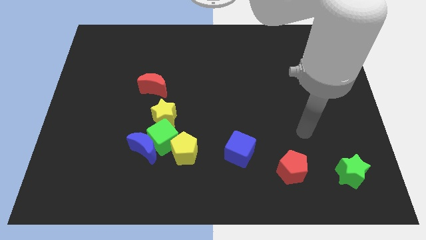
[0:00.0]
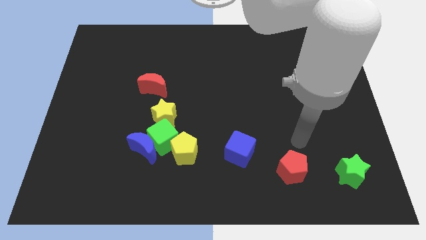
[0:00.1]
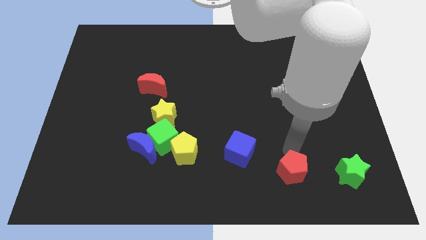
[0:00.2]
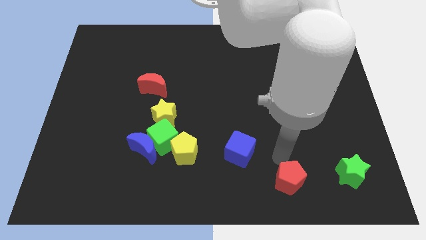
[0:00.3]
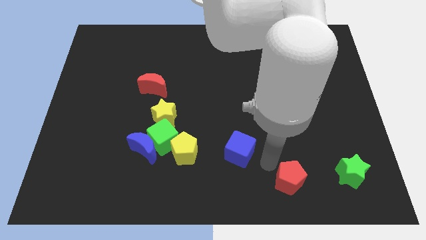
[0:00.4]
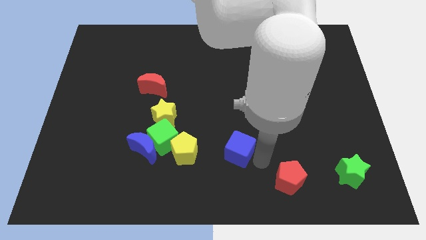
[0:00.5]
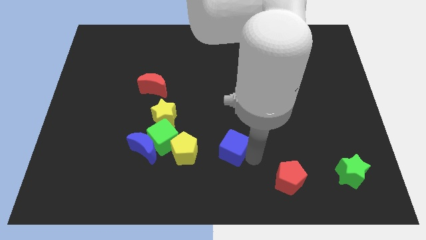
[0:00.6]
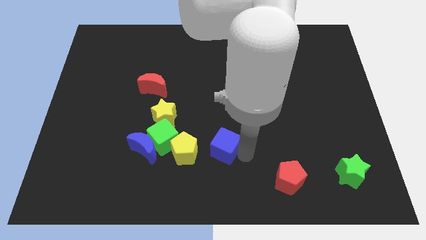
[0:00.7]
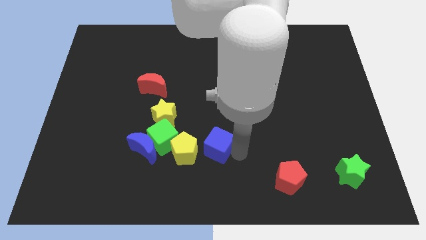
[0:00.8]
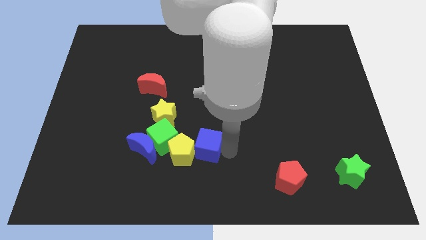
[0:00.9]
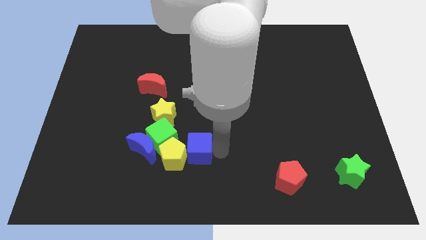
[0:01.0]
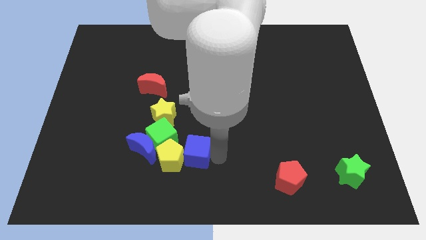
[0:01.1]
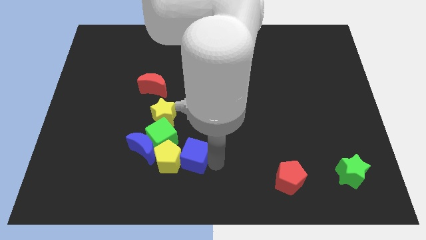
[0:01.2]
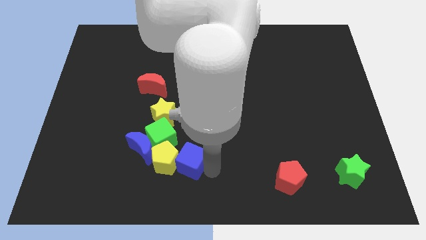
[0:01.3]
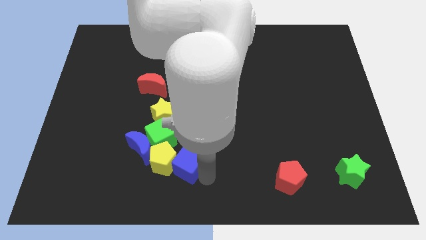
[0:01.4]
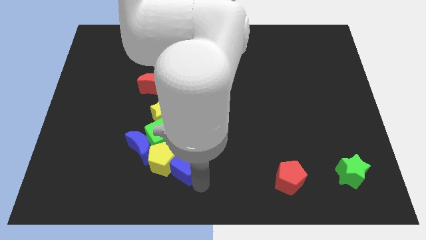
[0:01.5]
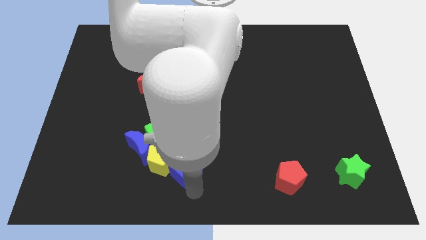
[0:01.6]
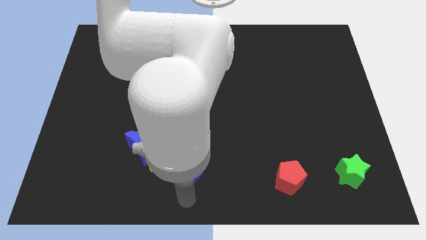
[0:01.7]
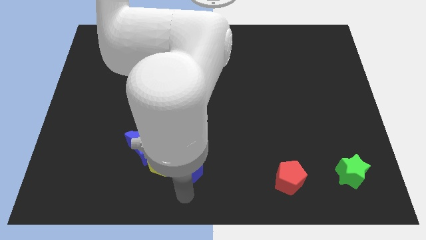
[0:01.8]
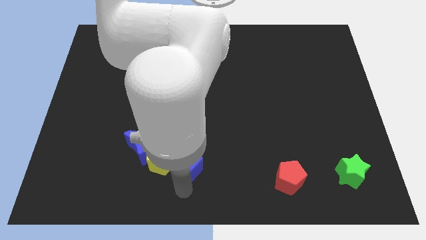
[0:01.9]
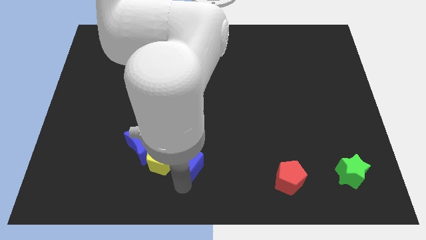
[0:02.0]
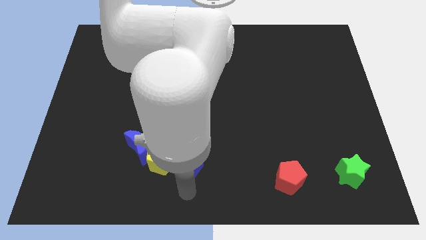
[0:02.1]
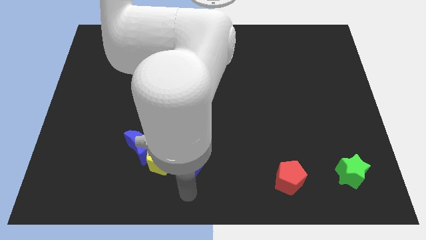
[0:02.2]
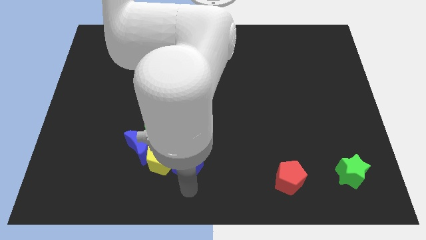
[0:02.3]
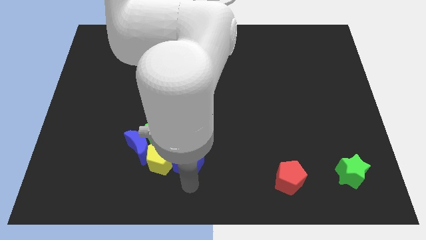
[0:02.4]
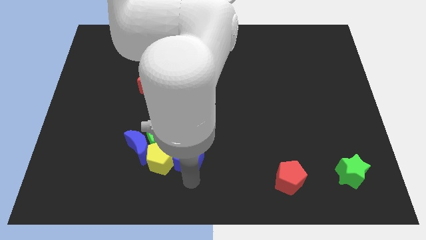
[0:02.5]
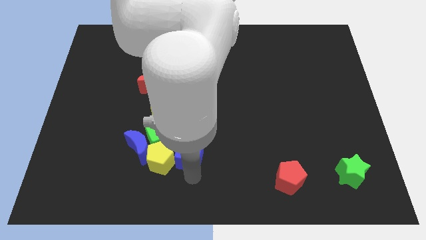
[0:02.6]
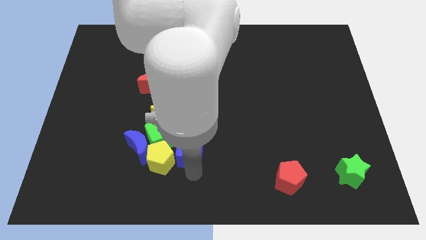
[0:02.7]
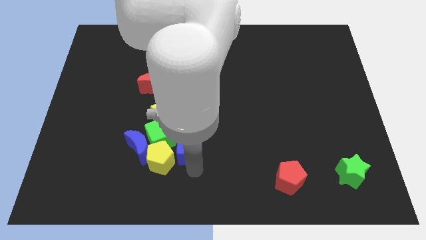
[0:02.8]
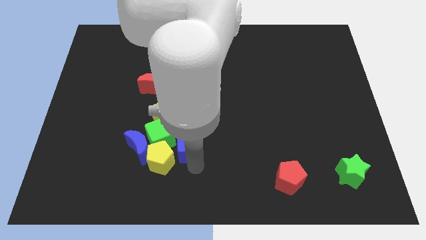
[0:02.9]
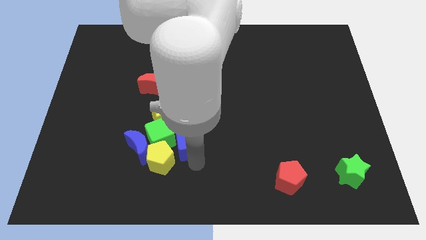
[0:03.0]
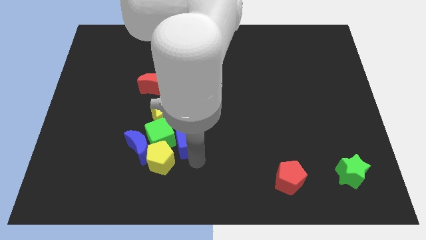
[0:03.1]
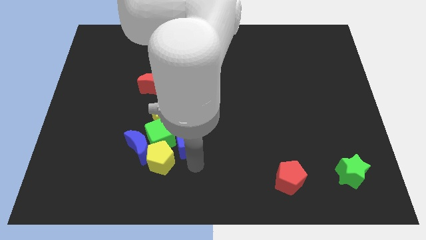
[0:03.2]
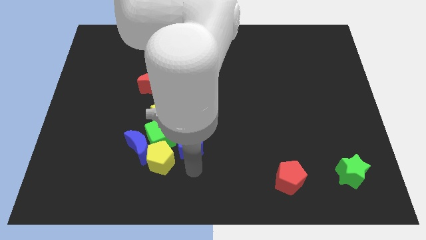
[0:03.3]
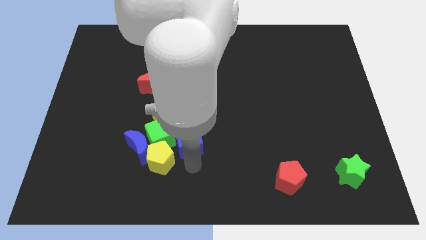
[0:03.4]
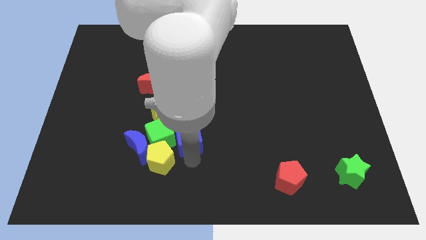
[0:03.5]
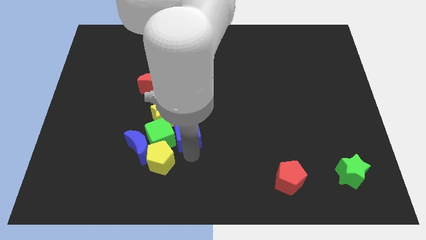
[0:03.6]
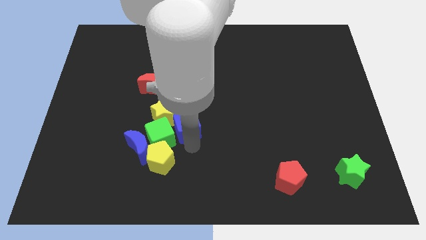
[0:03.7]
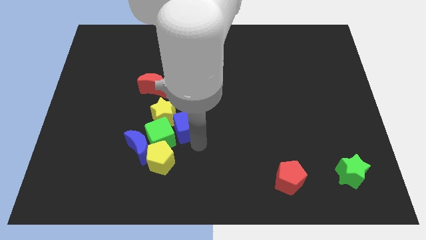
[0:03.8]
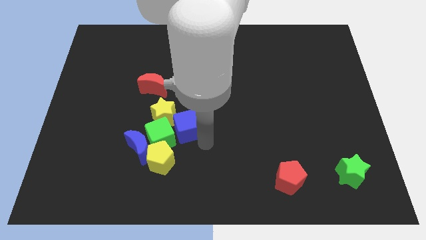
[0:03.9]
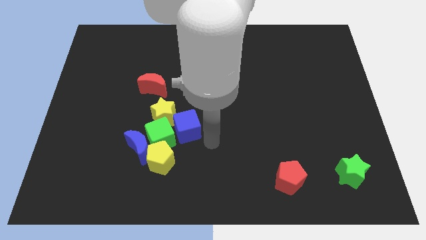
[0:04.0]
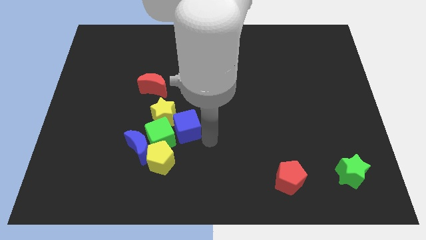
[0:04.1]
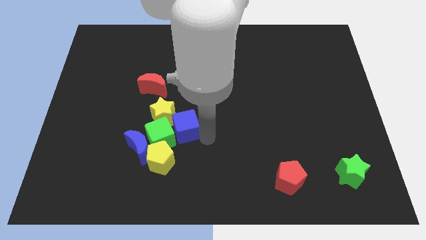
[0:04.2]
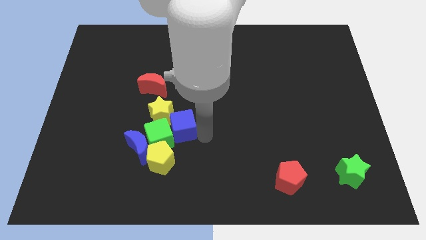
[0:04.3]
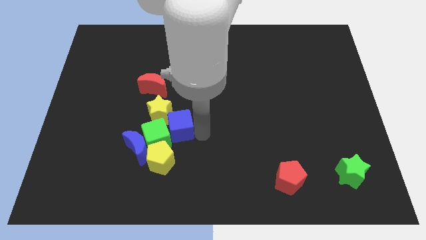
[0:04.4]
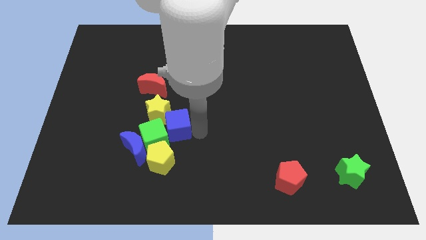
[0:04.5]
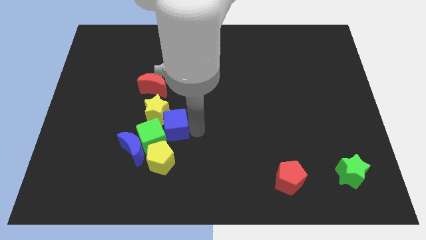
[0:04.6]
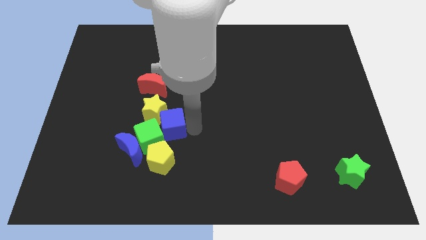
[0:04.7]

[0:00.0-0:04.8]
move the blue cube next to the yellow star

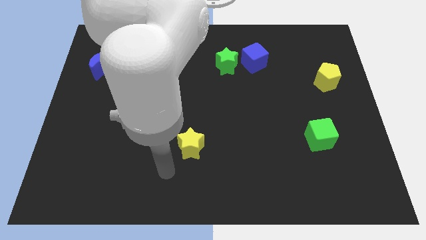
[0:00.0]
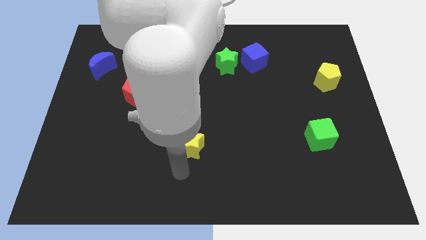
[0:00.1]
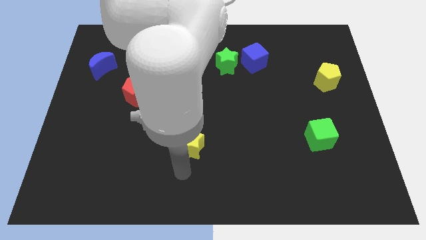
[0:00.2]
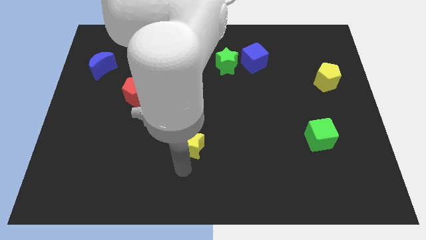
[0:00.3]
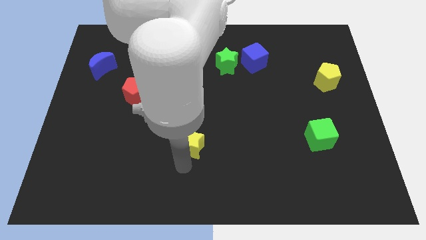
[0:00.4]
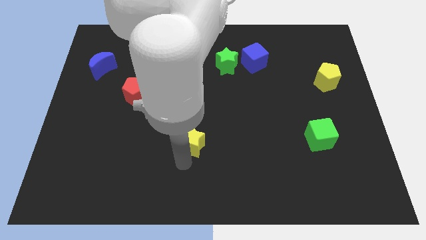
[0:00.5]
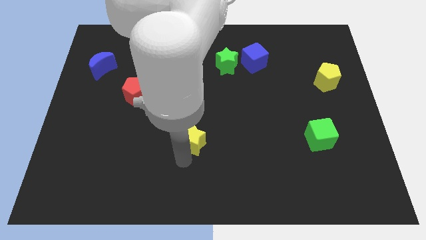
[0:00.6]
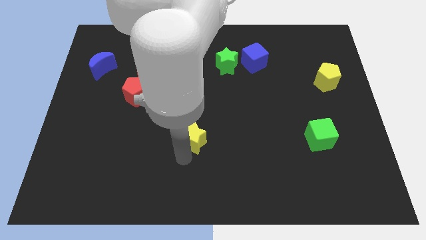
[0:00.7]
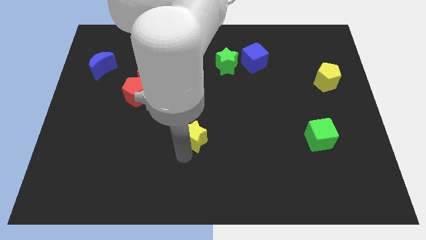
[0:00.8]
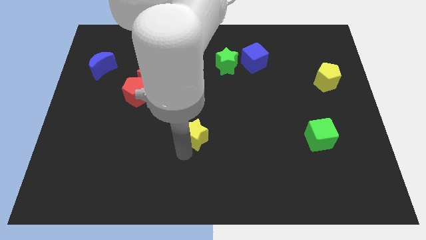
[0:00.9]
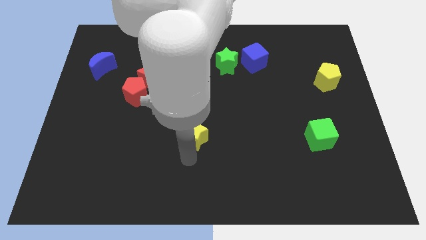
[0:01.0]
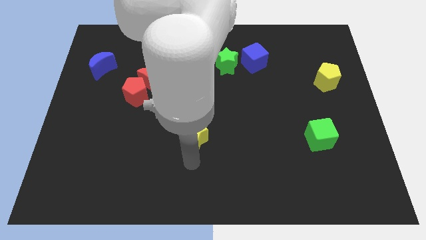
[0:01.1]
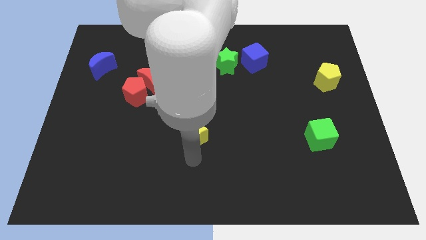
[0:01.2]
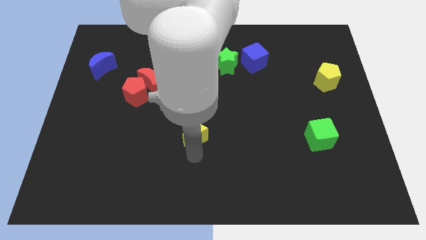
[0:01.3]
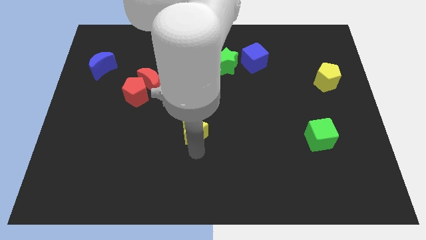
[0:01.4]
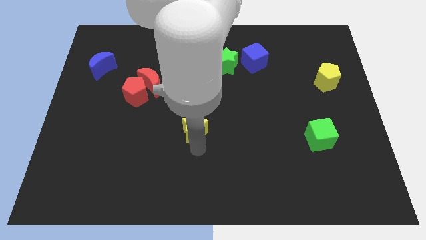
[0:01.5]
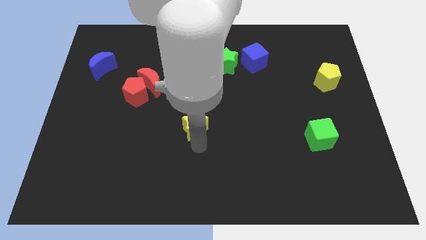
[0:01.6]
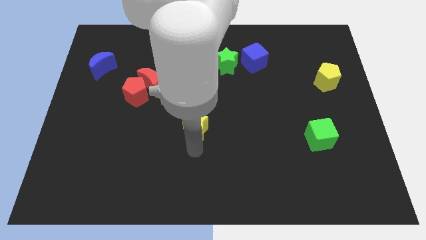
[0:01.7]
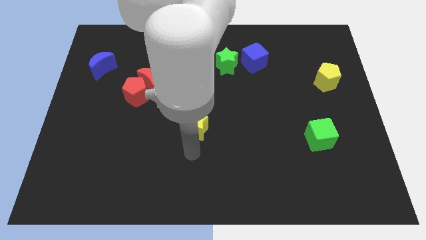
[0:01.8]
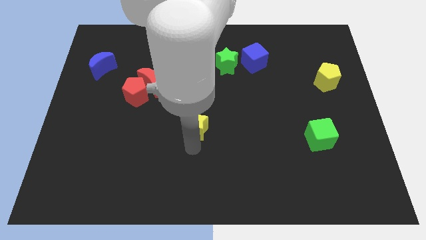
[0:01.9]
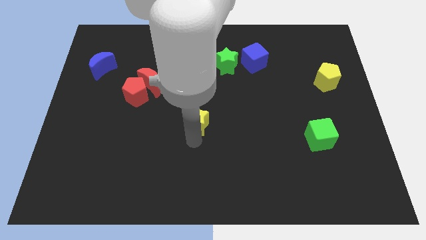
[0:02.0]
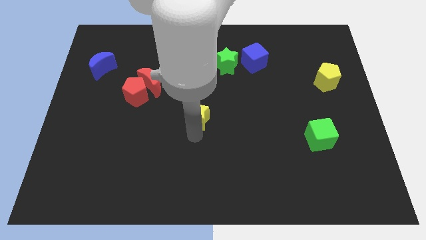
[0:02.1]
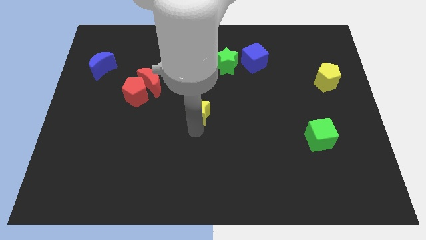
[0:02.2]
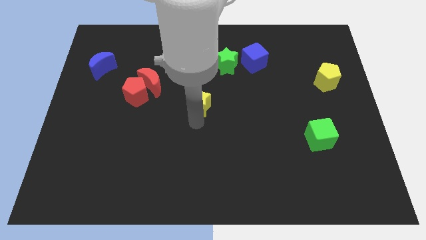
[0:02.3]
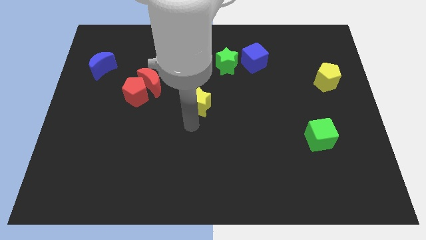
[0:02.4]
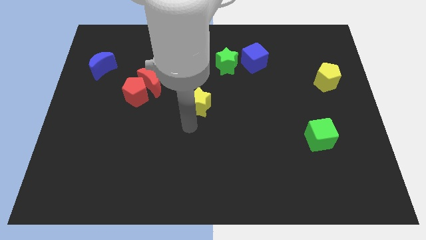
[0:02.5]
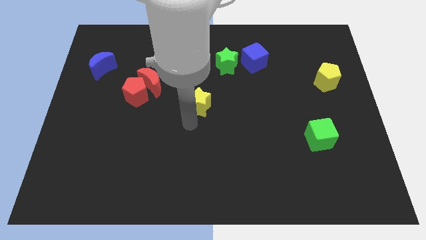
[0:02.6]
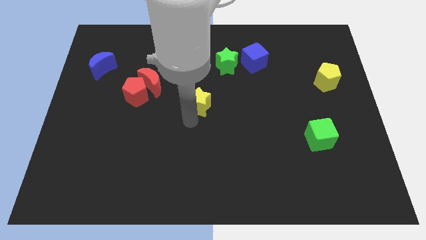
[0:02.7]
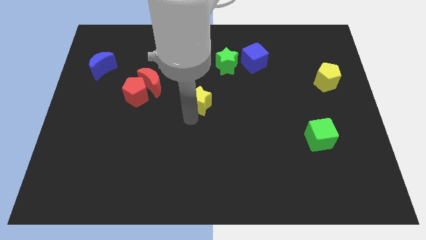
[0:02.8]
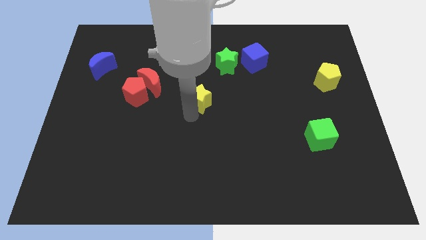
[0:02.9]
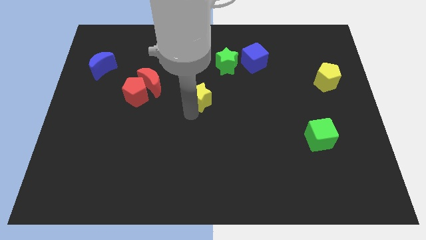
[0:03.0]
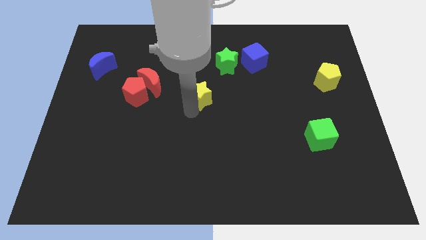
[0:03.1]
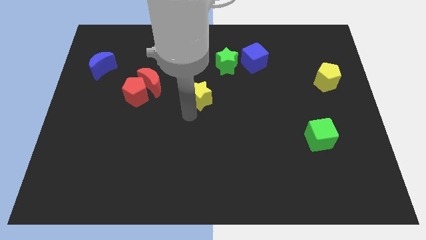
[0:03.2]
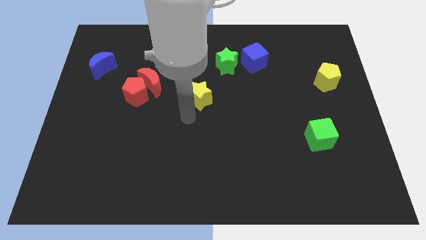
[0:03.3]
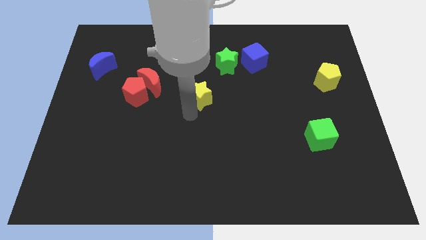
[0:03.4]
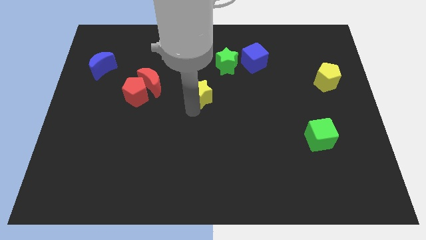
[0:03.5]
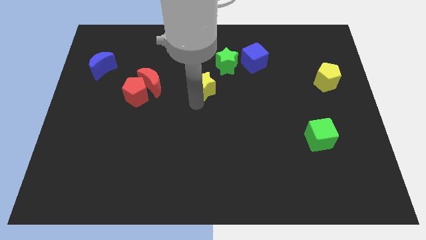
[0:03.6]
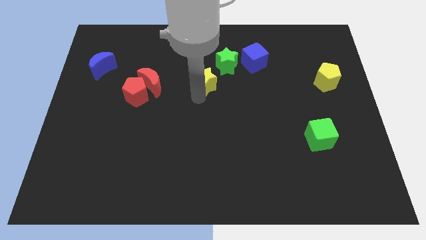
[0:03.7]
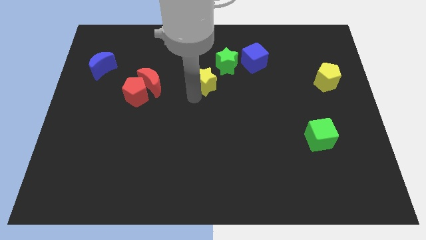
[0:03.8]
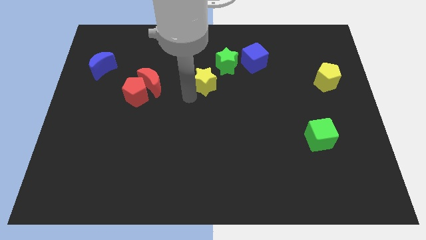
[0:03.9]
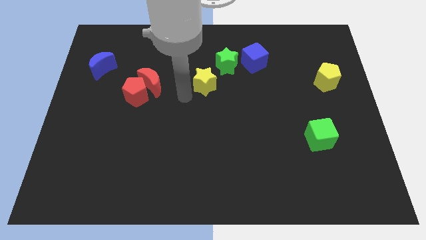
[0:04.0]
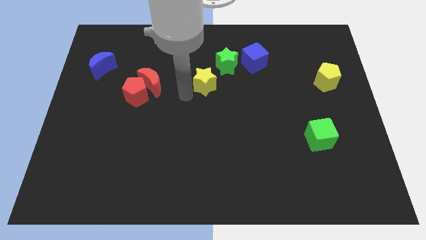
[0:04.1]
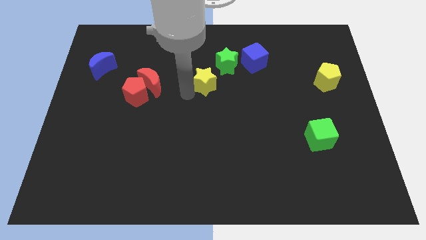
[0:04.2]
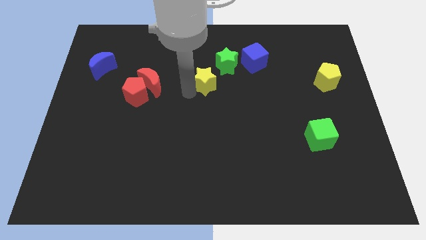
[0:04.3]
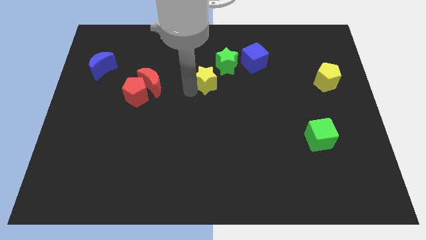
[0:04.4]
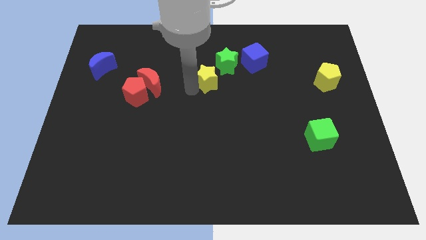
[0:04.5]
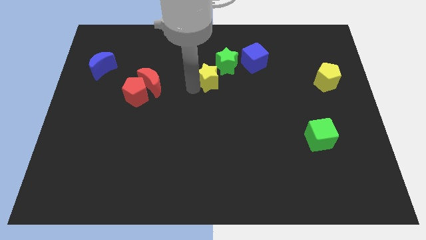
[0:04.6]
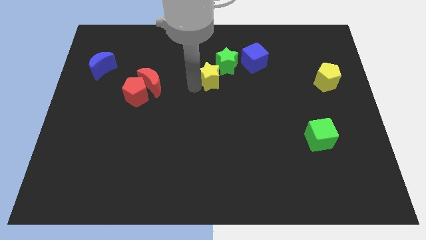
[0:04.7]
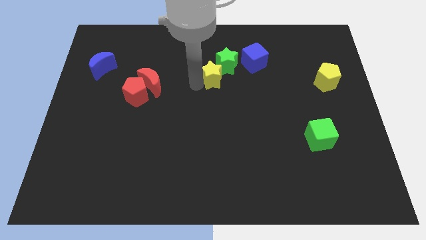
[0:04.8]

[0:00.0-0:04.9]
slide the yellow star next to the green star
